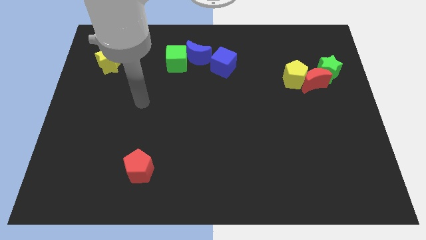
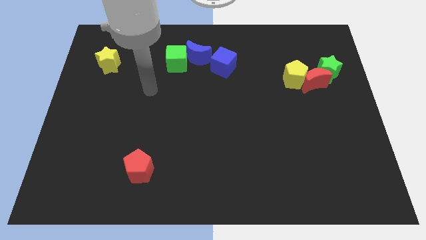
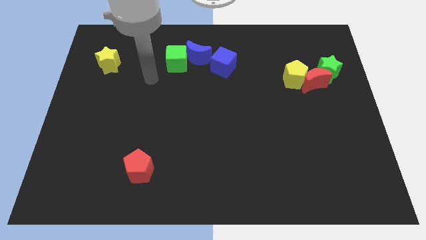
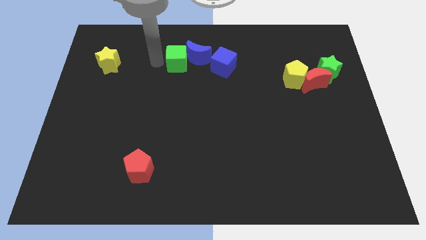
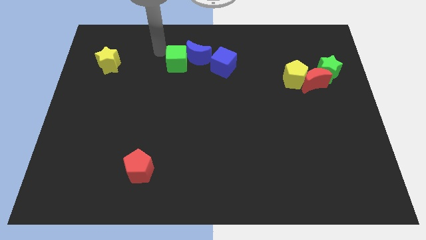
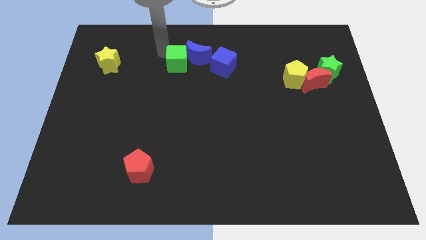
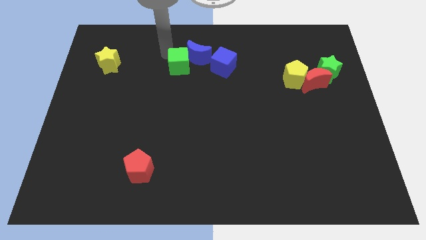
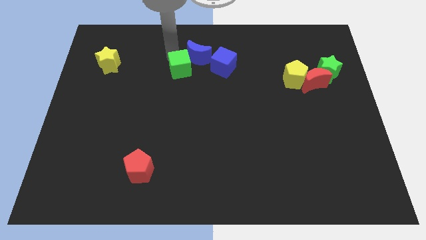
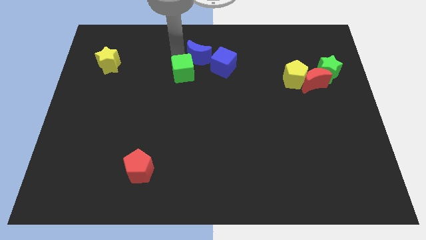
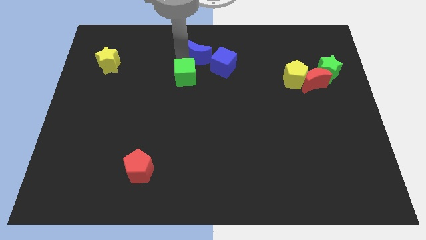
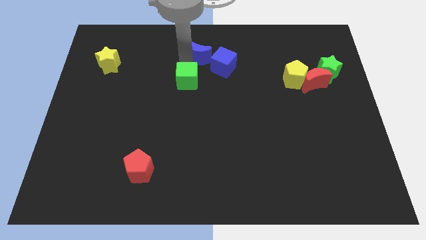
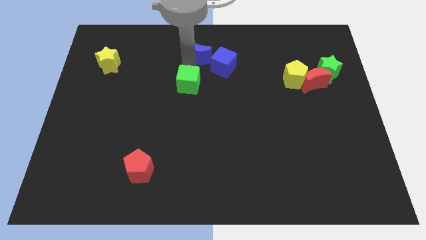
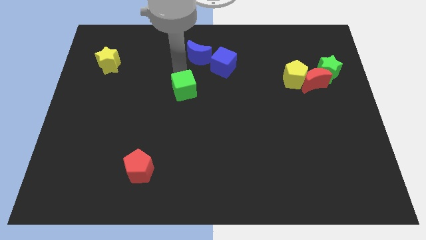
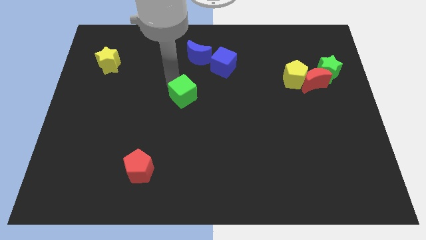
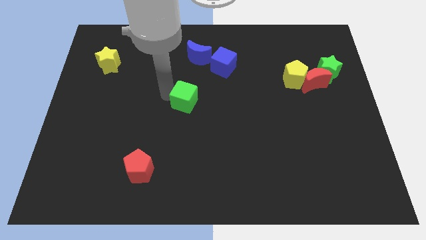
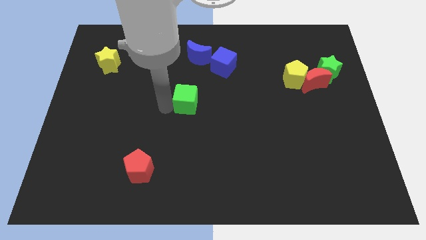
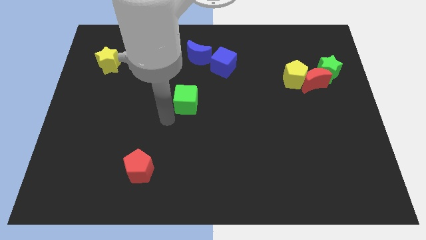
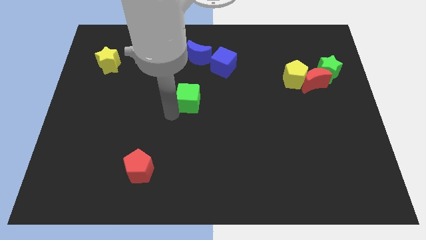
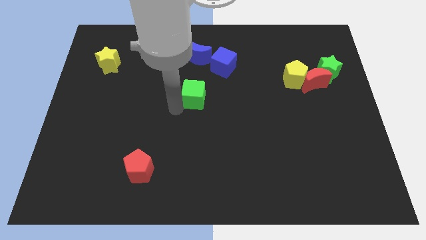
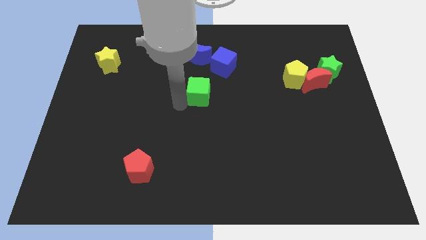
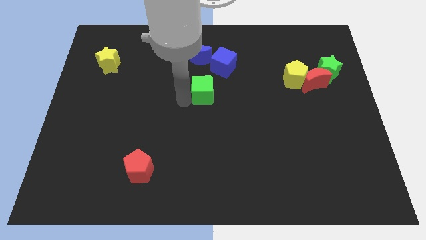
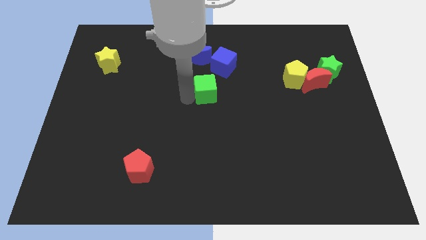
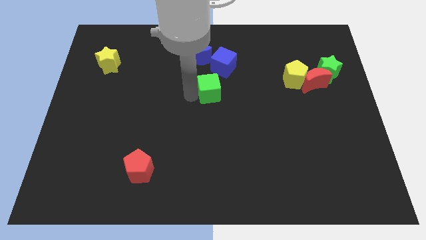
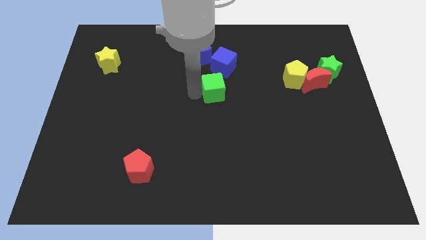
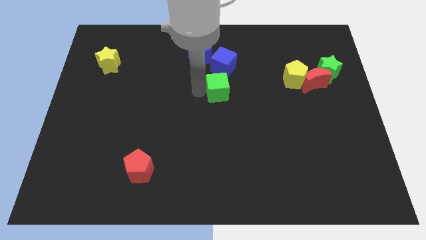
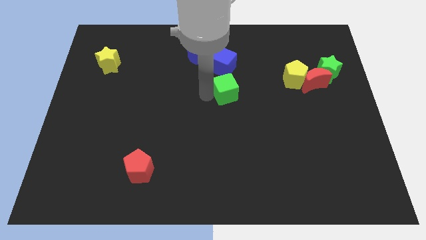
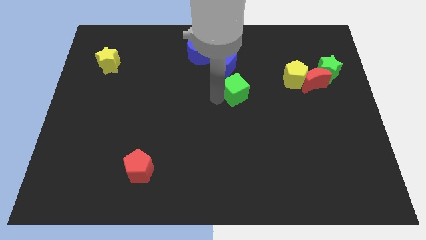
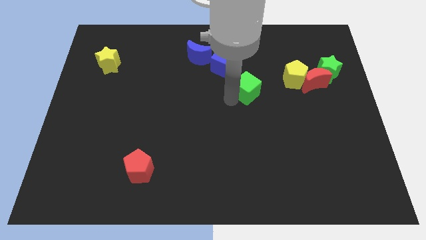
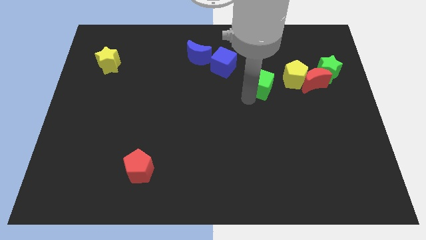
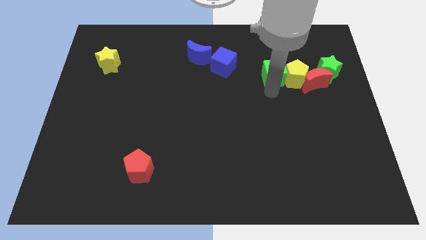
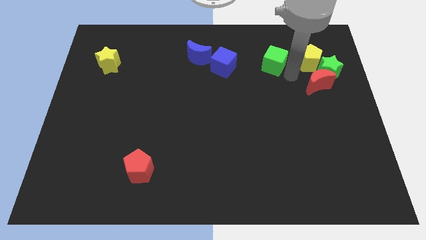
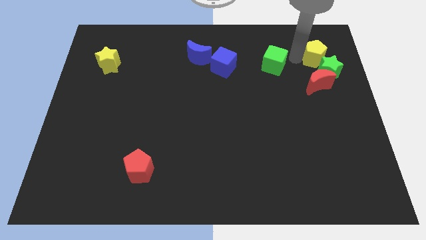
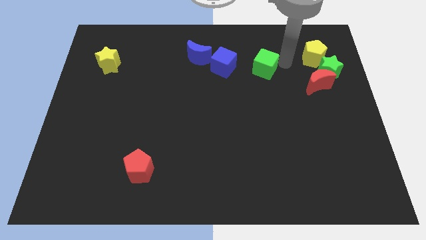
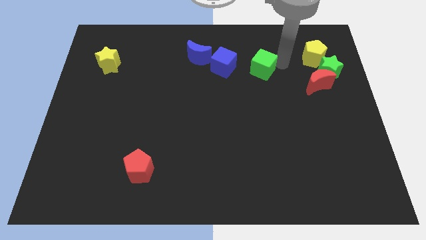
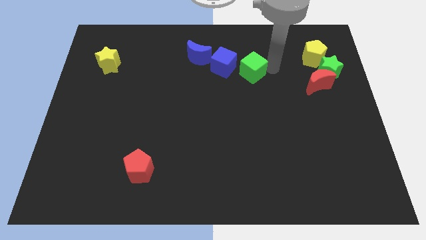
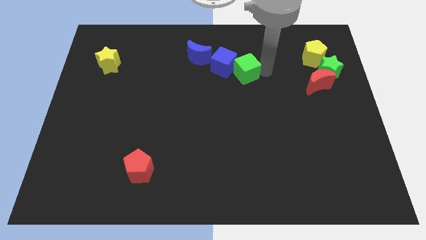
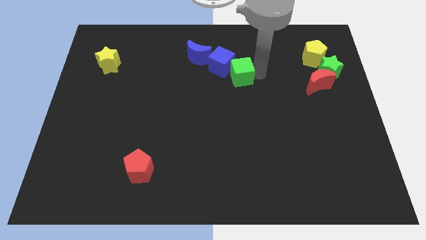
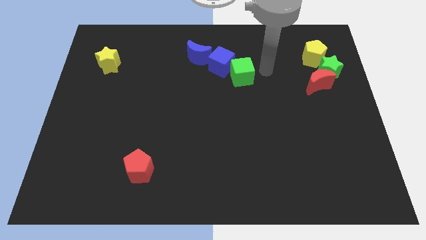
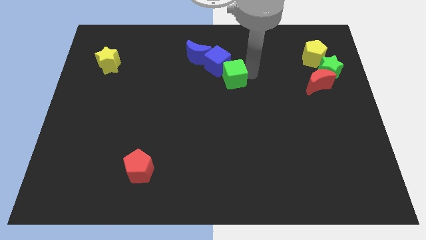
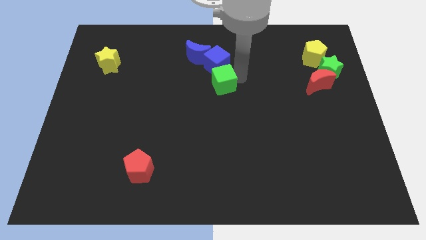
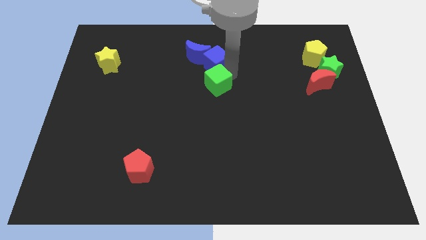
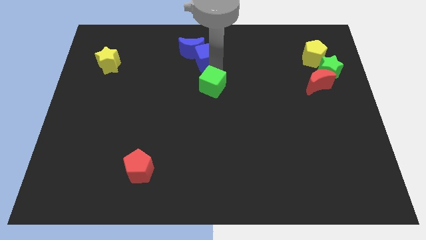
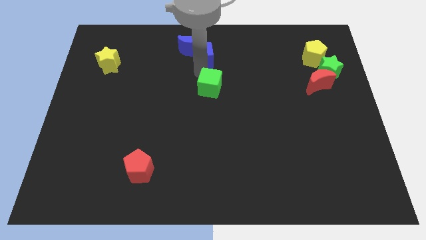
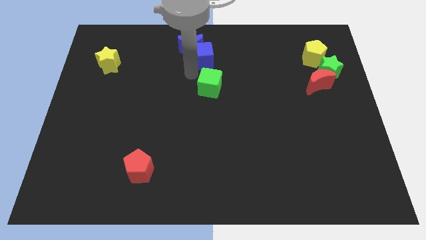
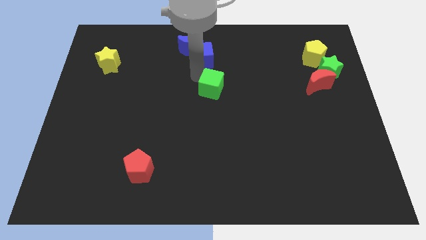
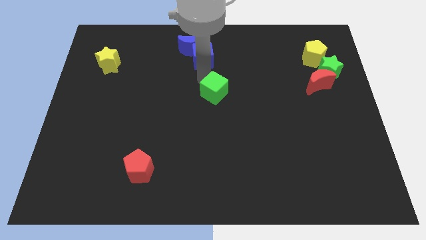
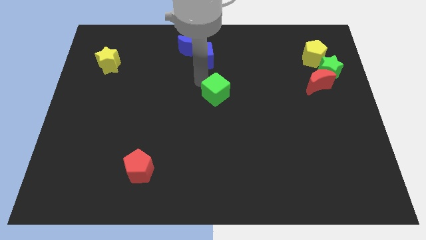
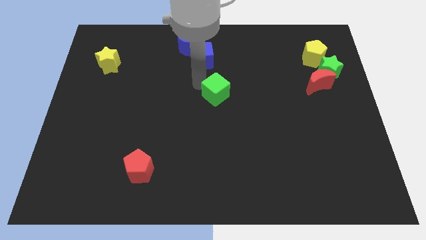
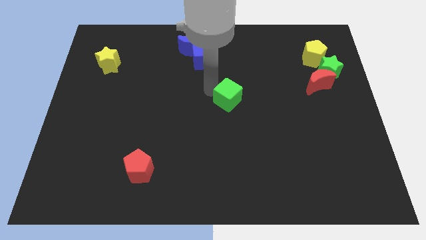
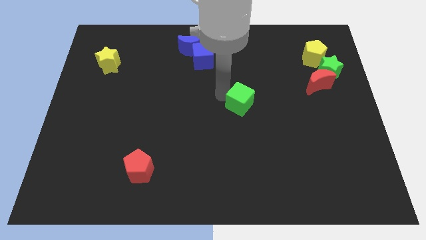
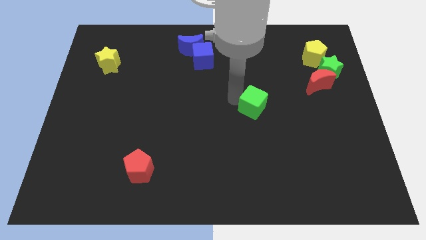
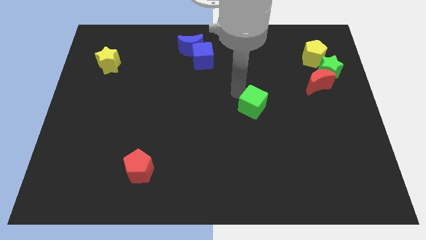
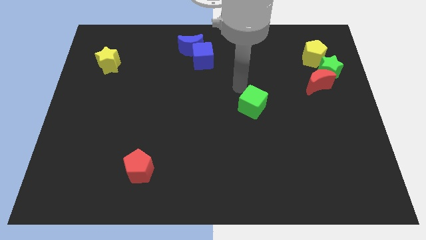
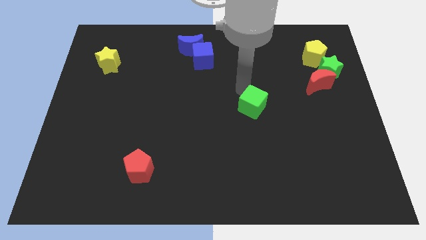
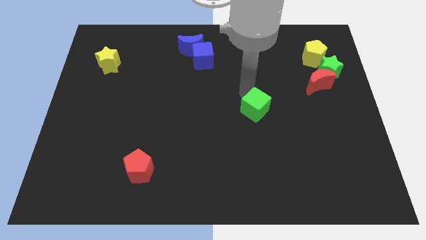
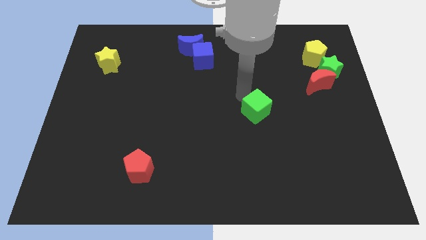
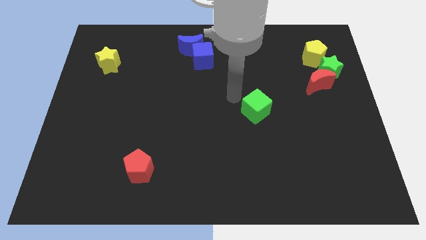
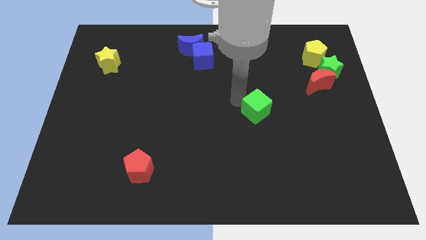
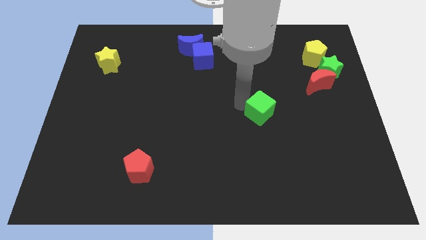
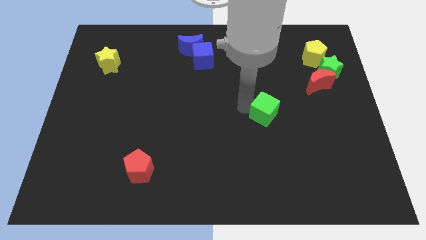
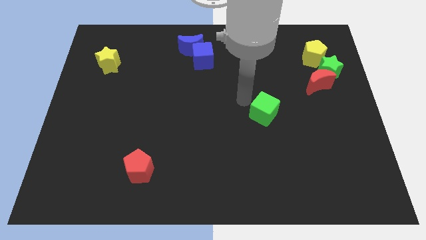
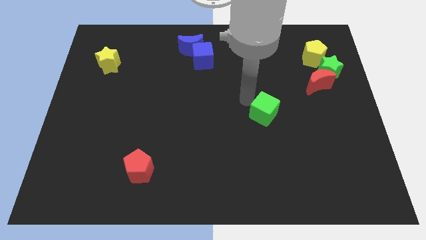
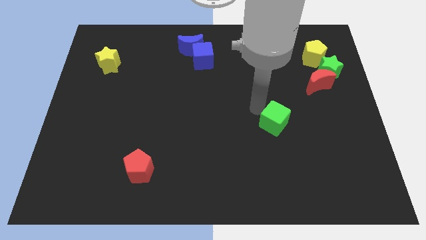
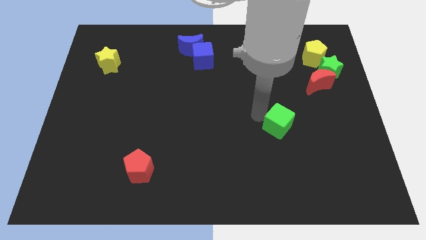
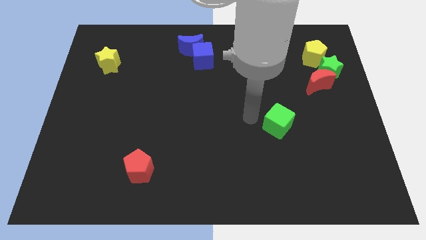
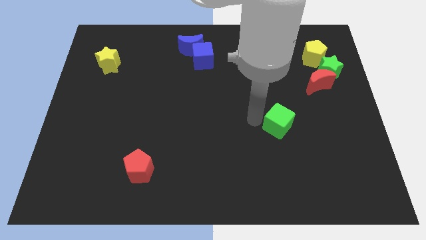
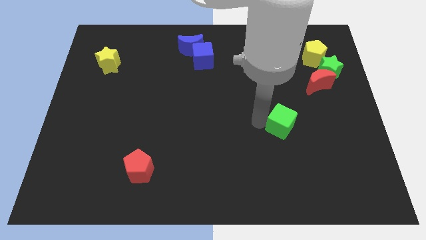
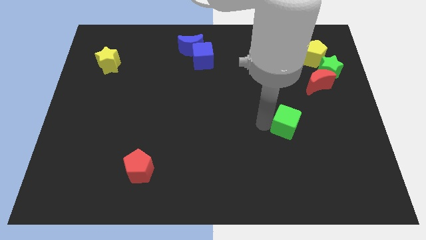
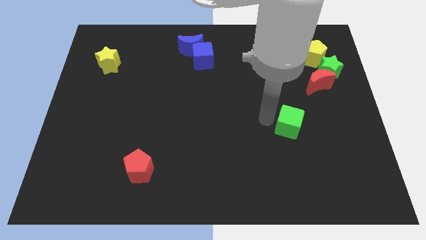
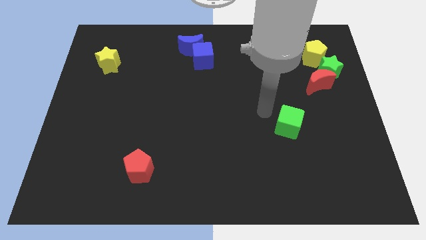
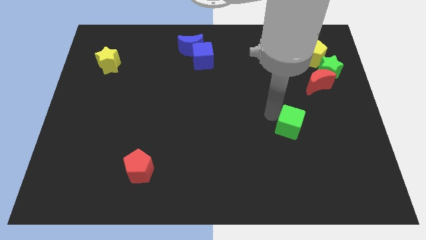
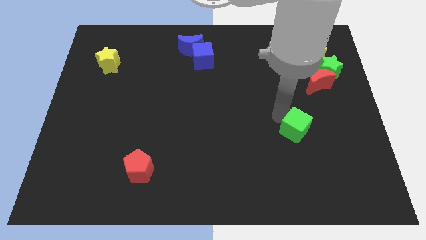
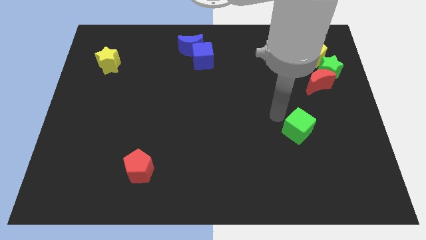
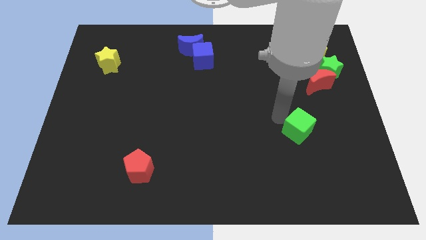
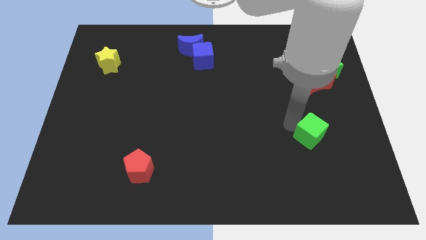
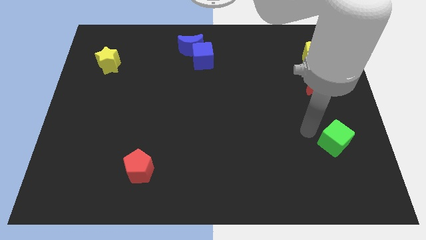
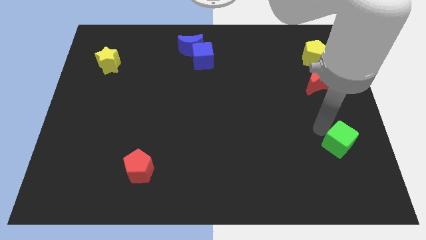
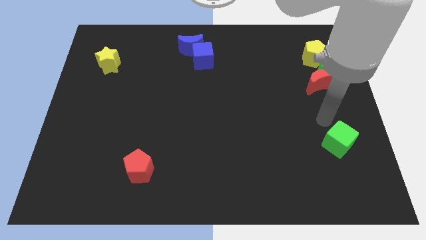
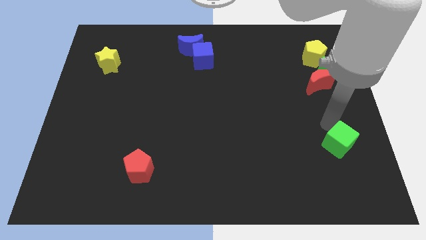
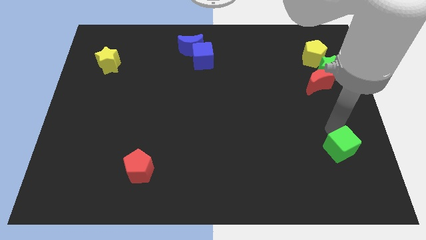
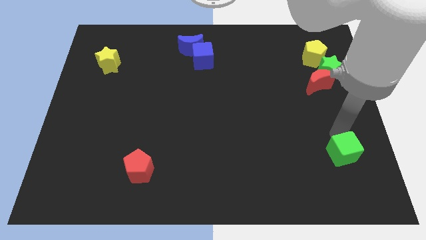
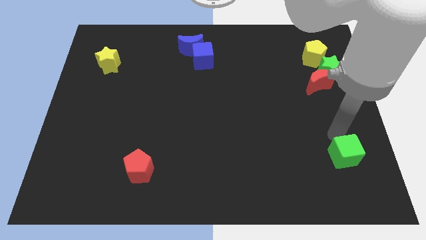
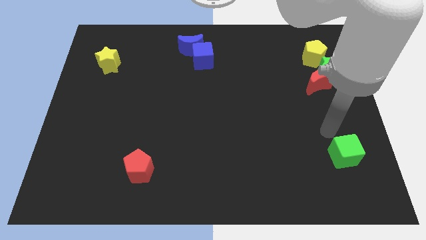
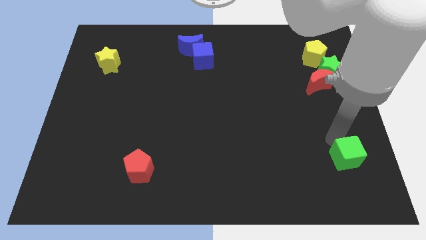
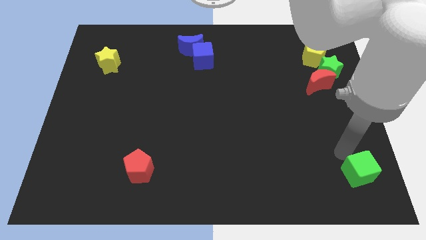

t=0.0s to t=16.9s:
put the green cube to the bottom right of the board
